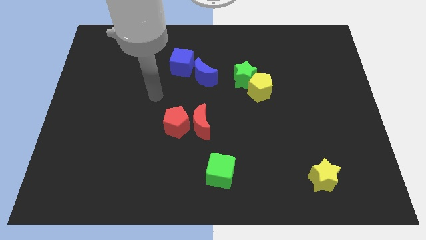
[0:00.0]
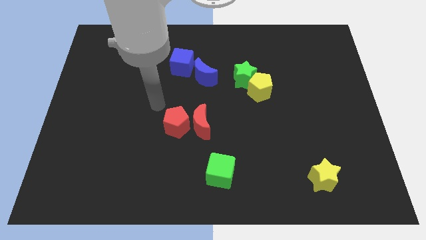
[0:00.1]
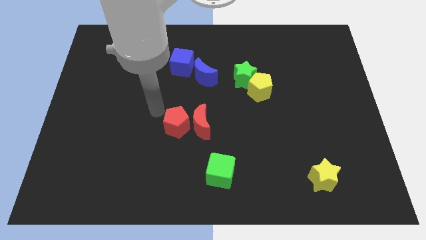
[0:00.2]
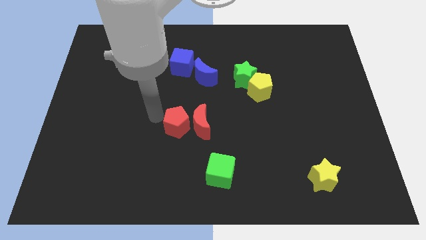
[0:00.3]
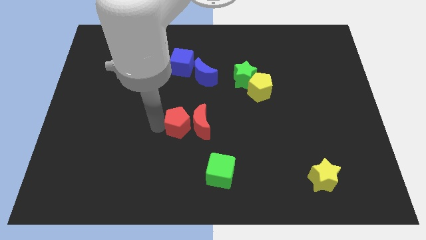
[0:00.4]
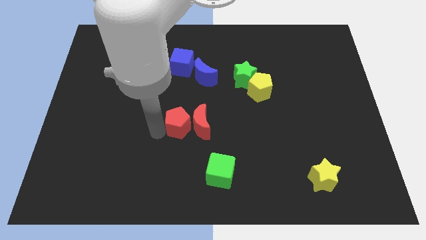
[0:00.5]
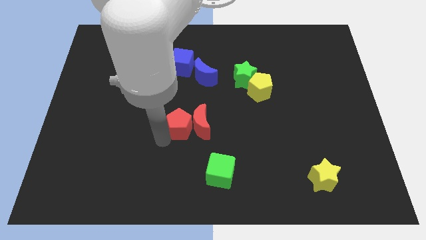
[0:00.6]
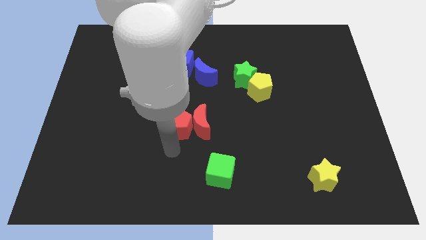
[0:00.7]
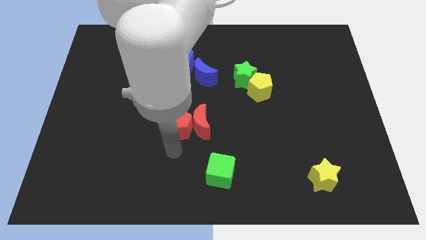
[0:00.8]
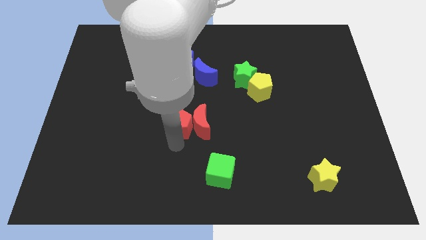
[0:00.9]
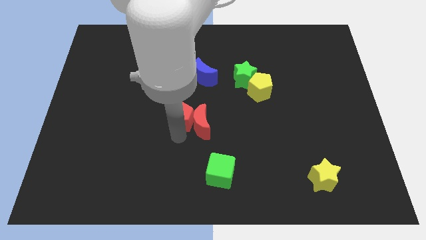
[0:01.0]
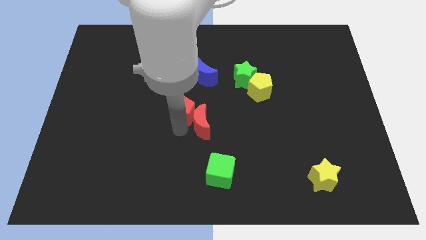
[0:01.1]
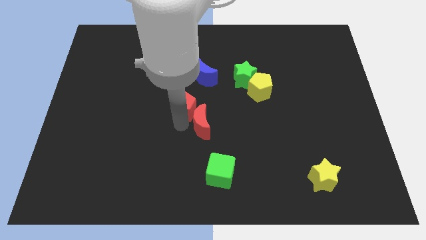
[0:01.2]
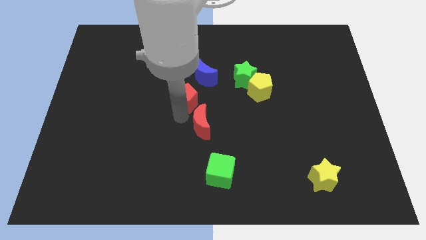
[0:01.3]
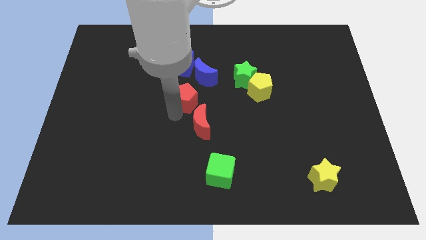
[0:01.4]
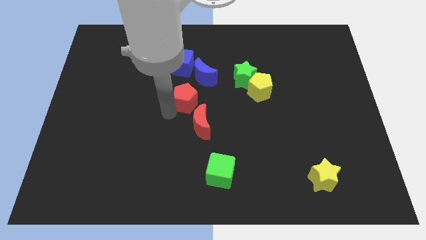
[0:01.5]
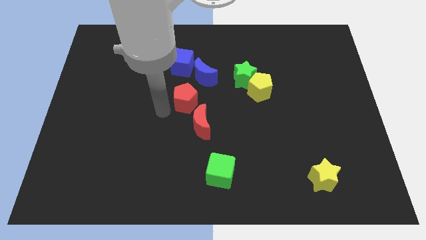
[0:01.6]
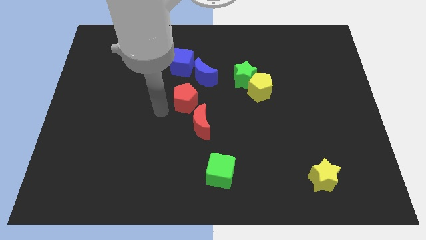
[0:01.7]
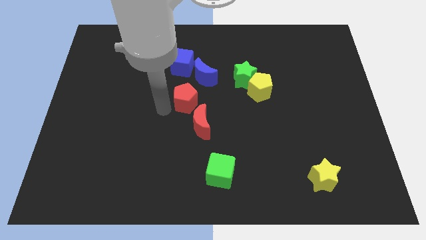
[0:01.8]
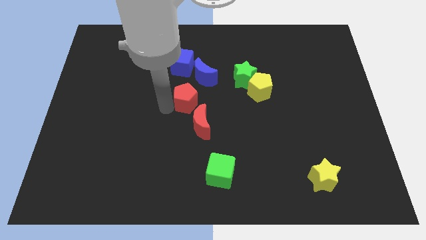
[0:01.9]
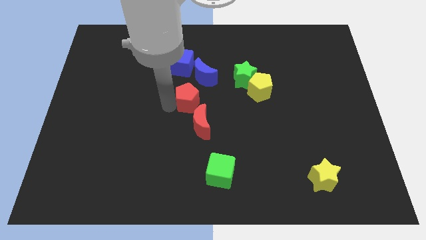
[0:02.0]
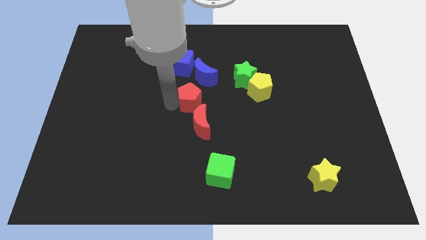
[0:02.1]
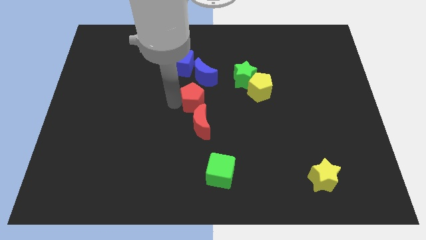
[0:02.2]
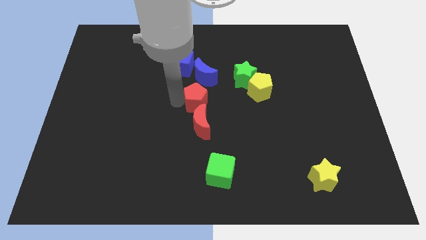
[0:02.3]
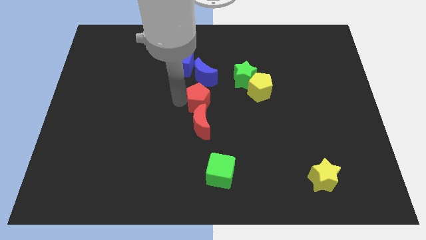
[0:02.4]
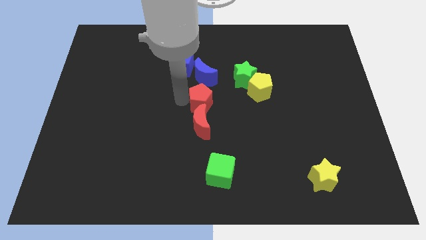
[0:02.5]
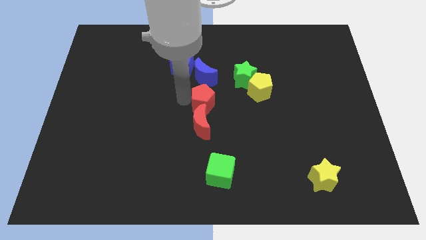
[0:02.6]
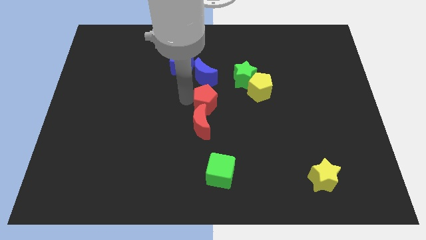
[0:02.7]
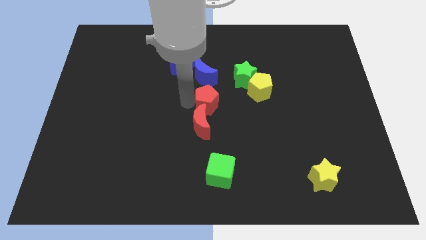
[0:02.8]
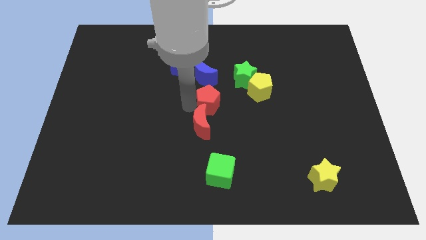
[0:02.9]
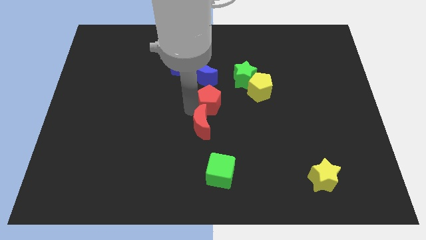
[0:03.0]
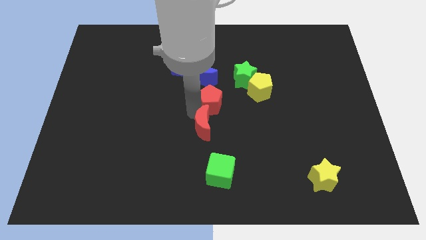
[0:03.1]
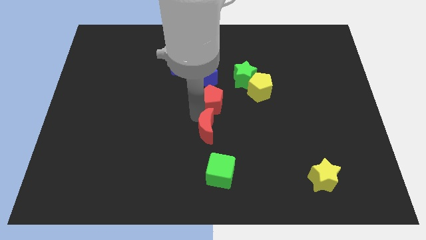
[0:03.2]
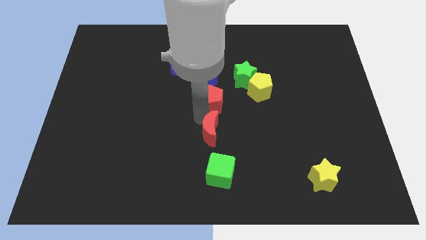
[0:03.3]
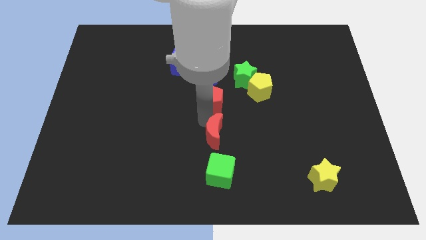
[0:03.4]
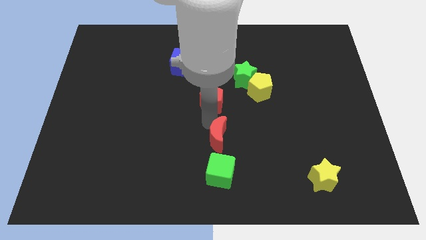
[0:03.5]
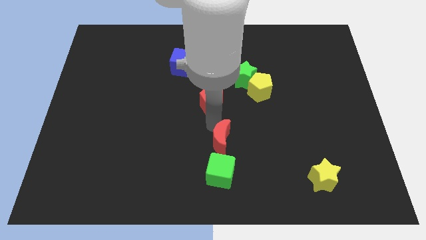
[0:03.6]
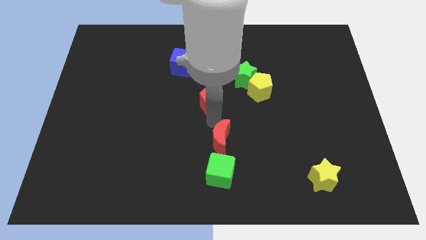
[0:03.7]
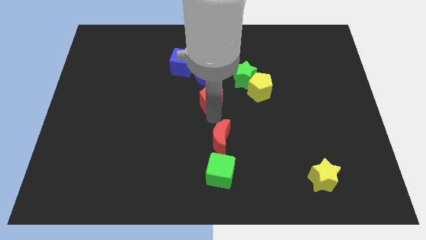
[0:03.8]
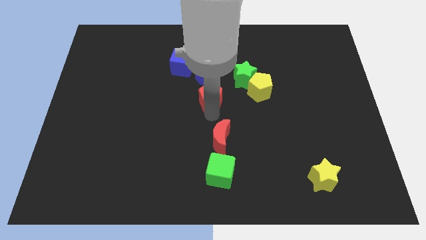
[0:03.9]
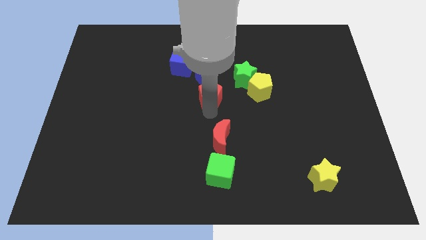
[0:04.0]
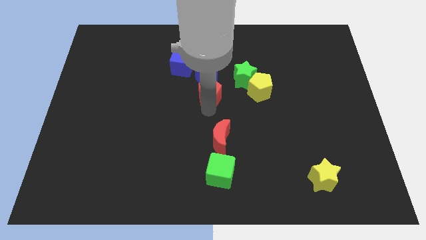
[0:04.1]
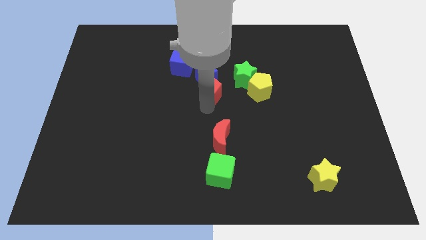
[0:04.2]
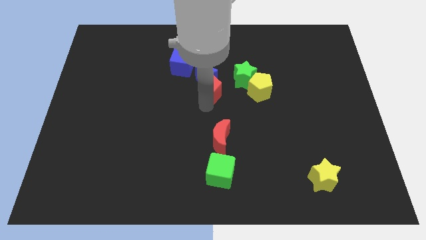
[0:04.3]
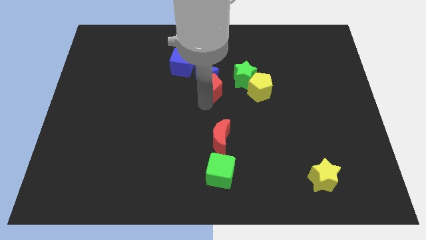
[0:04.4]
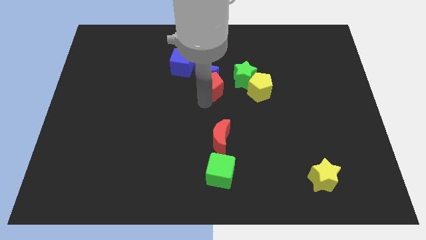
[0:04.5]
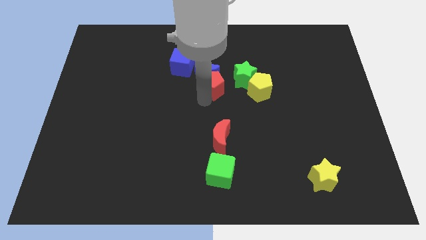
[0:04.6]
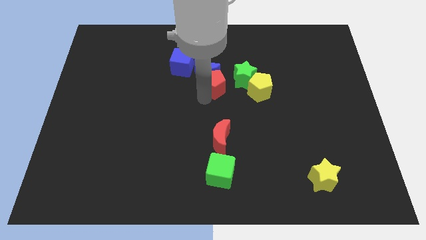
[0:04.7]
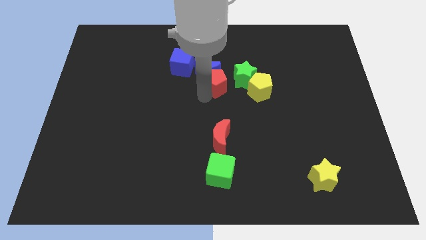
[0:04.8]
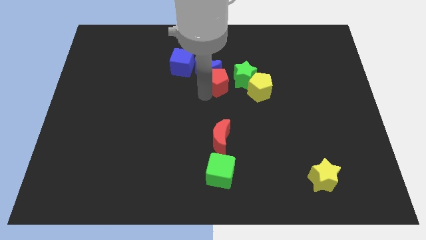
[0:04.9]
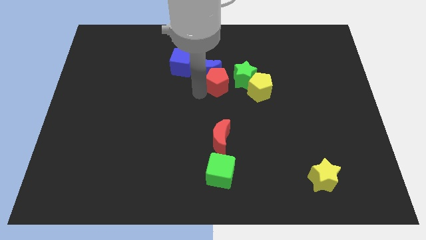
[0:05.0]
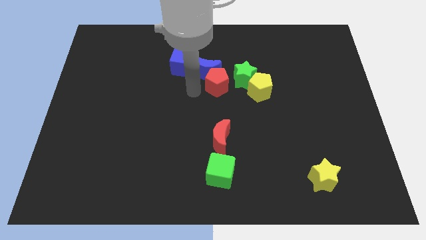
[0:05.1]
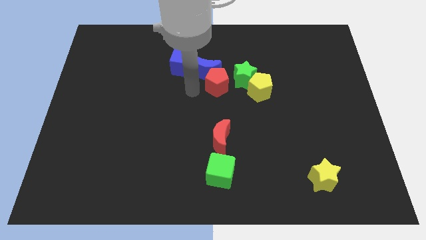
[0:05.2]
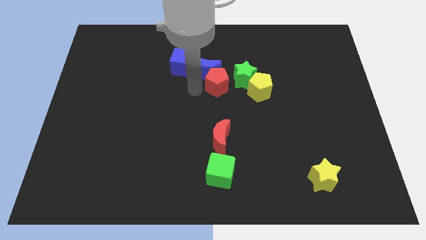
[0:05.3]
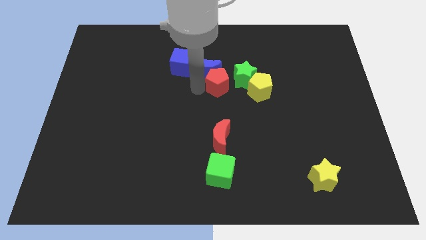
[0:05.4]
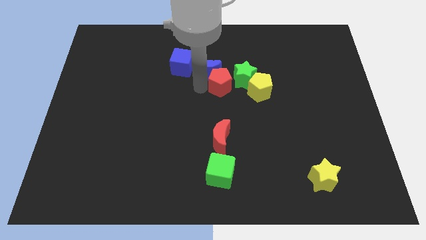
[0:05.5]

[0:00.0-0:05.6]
slide the red pentagon to the green star

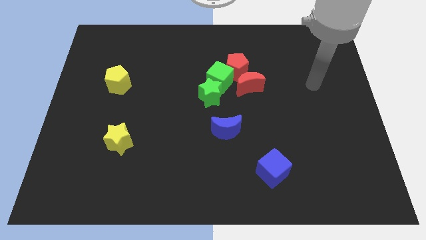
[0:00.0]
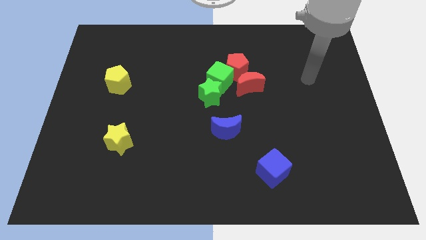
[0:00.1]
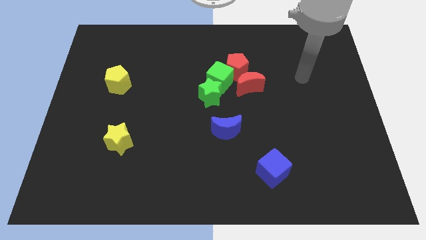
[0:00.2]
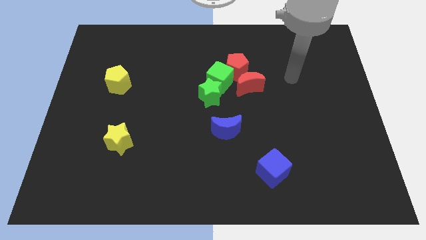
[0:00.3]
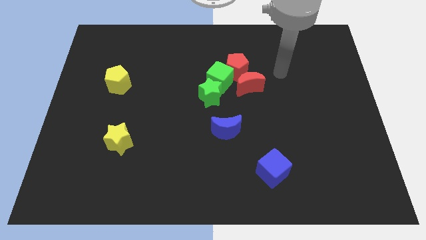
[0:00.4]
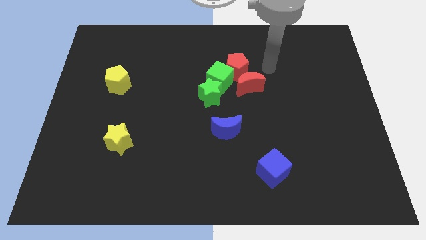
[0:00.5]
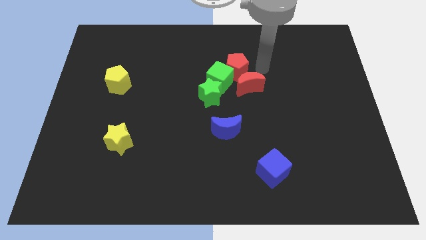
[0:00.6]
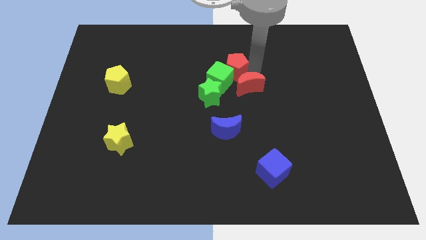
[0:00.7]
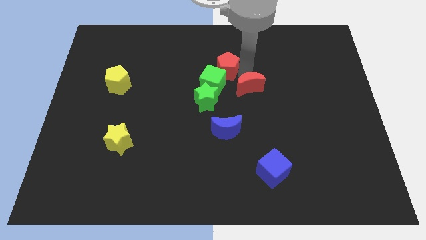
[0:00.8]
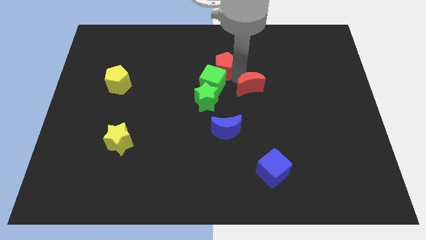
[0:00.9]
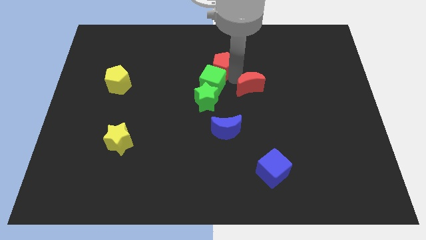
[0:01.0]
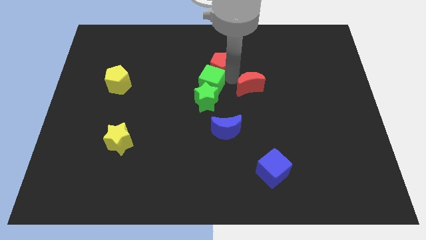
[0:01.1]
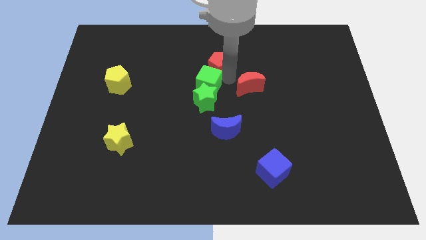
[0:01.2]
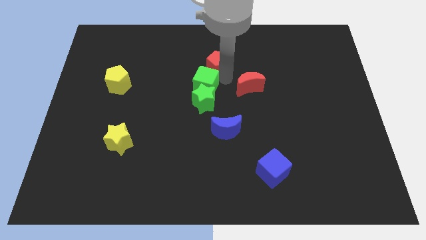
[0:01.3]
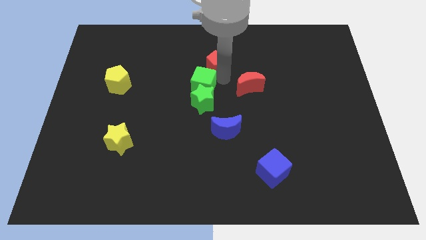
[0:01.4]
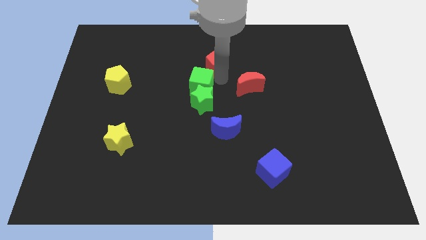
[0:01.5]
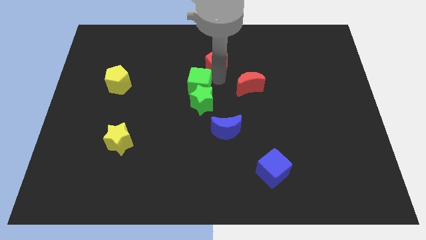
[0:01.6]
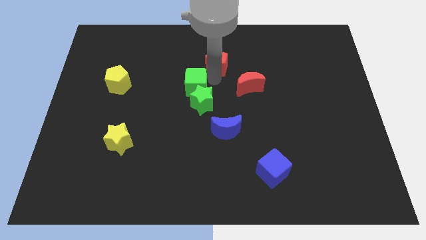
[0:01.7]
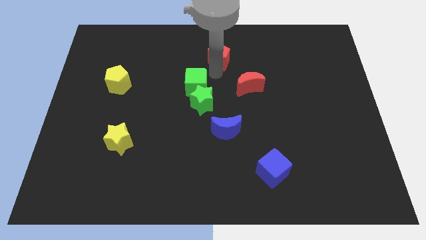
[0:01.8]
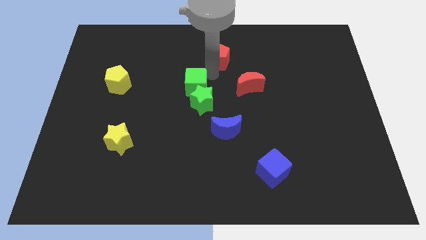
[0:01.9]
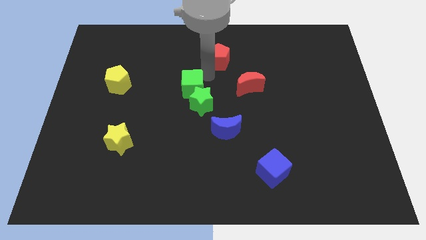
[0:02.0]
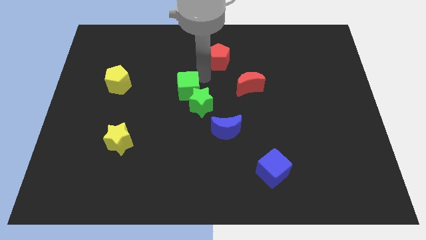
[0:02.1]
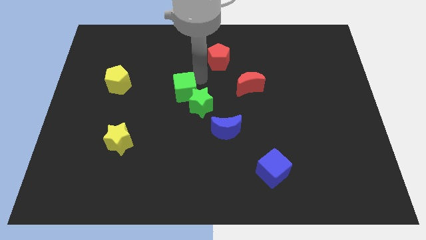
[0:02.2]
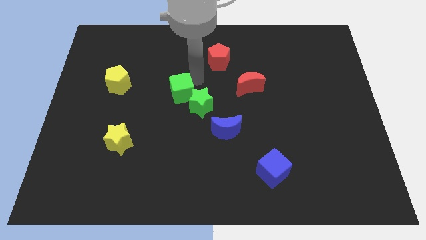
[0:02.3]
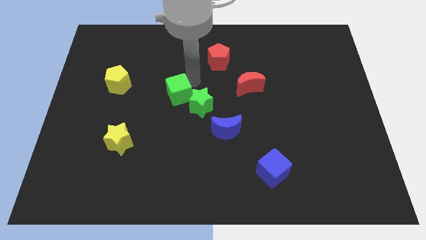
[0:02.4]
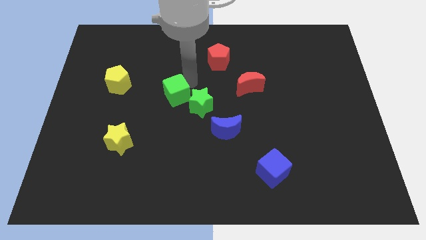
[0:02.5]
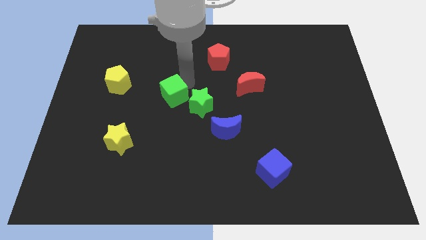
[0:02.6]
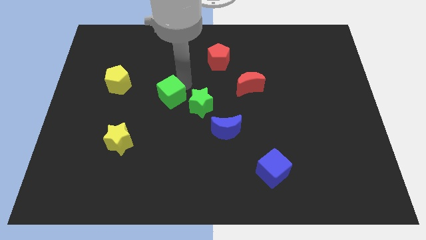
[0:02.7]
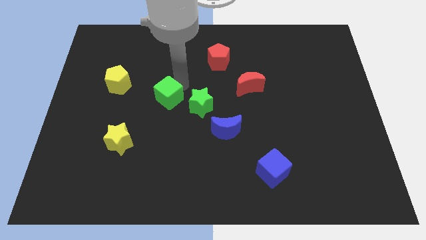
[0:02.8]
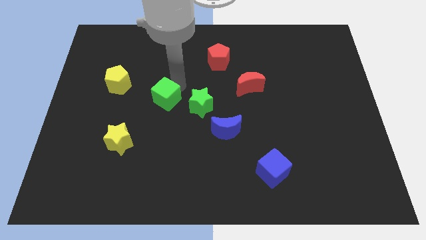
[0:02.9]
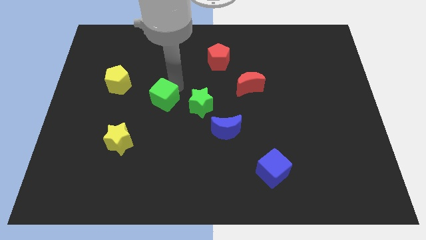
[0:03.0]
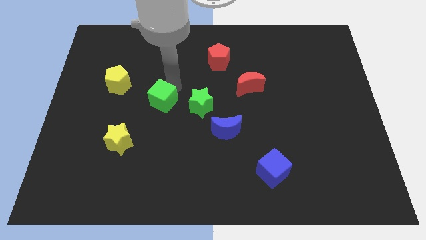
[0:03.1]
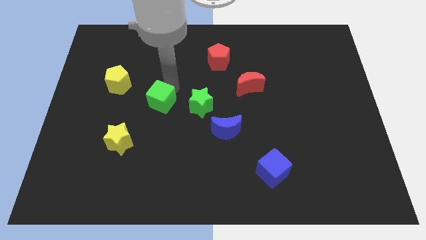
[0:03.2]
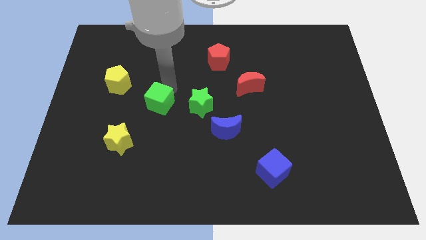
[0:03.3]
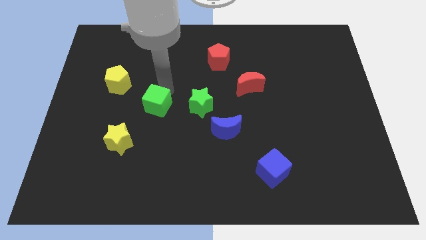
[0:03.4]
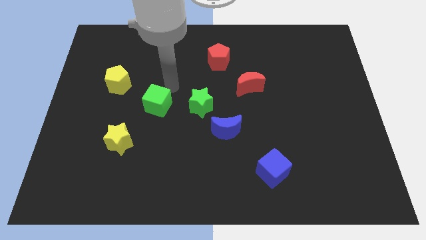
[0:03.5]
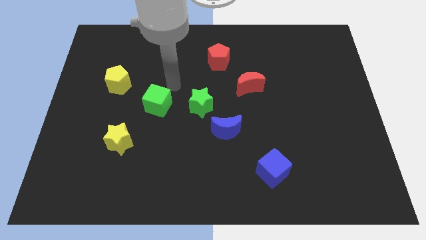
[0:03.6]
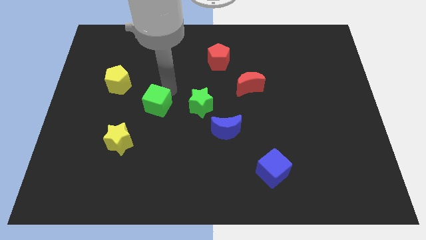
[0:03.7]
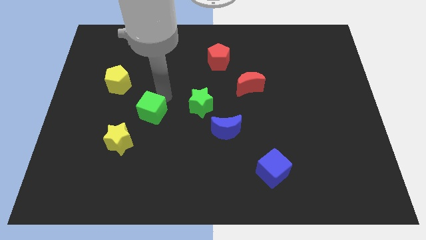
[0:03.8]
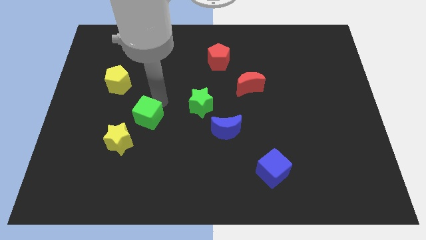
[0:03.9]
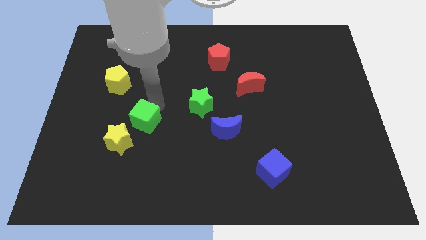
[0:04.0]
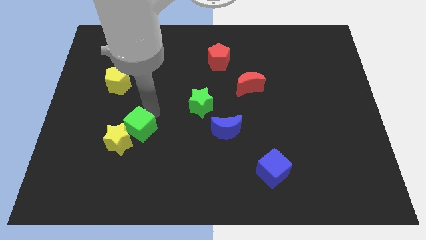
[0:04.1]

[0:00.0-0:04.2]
put the green cube next to the yellow star
